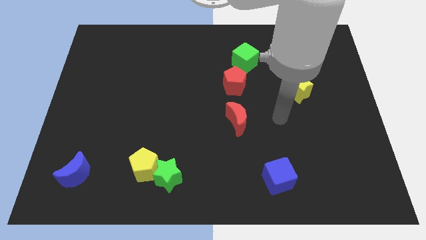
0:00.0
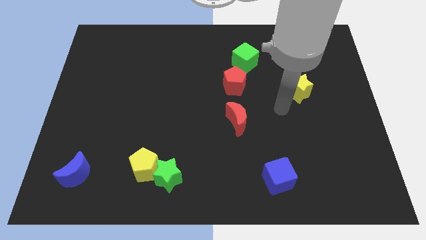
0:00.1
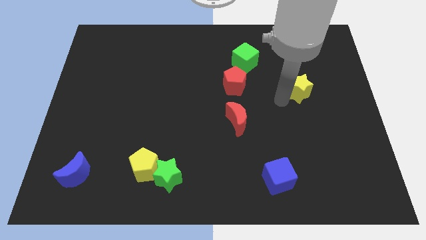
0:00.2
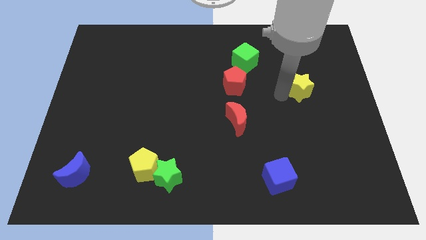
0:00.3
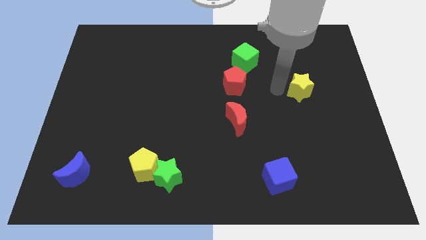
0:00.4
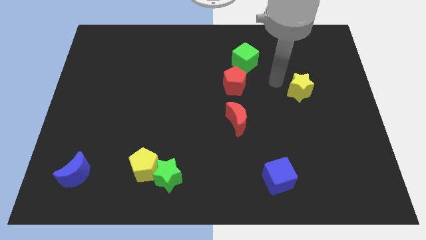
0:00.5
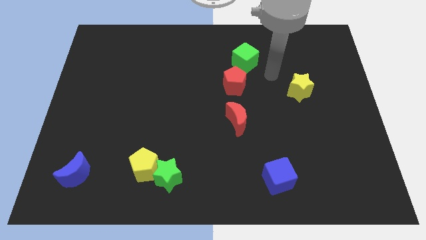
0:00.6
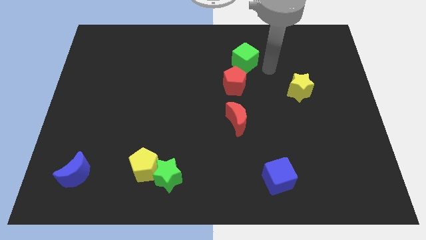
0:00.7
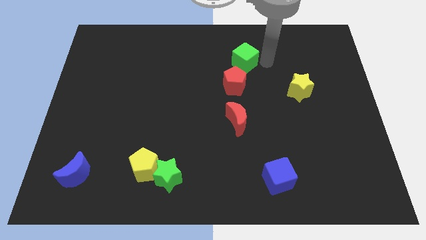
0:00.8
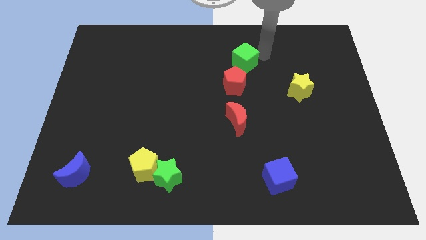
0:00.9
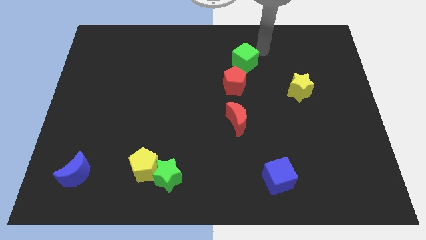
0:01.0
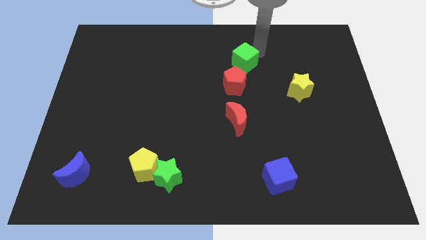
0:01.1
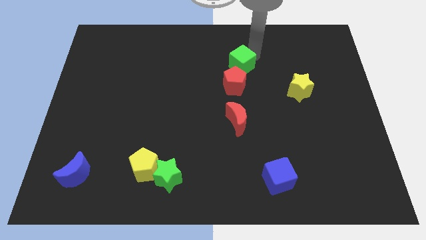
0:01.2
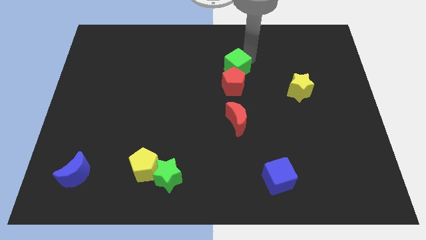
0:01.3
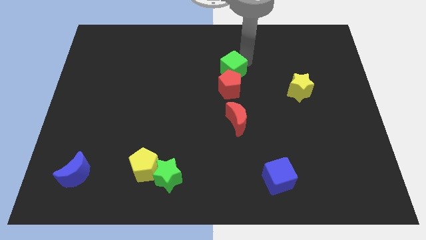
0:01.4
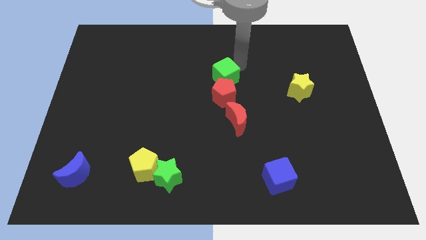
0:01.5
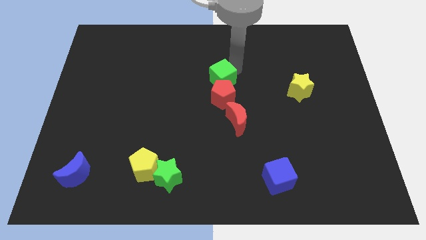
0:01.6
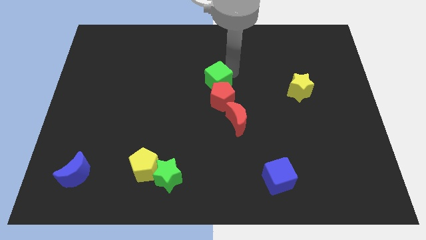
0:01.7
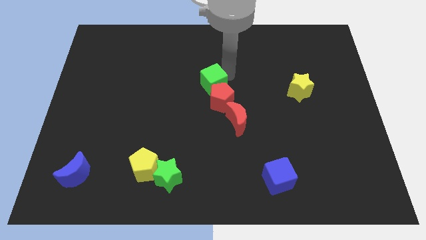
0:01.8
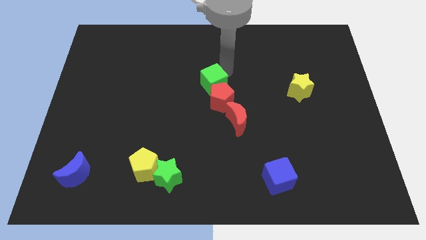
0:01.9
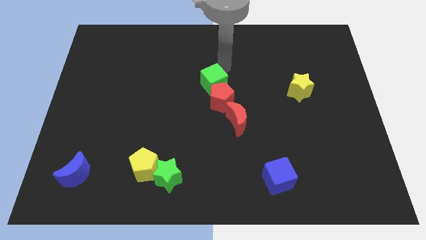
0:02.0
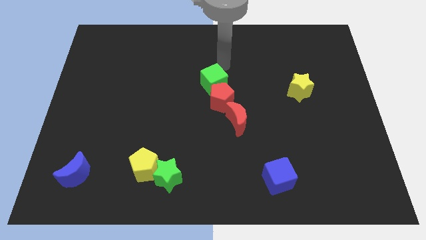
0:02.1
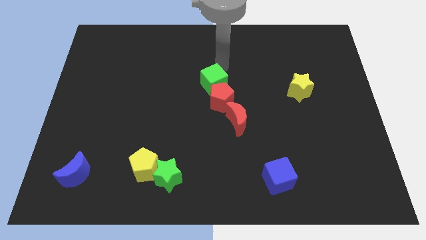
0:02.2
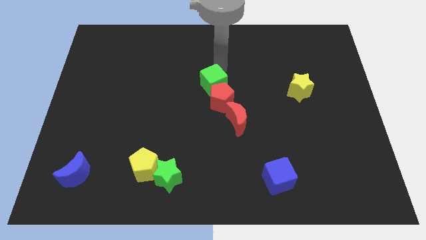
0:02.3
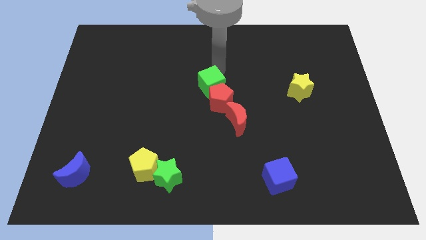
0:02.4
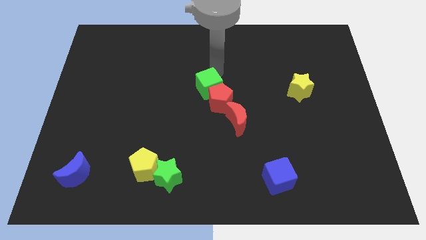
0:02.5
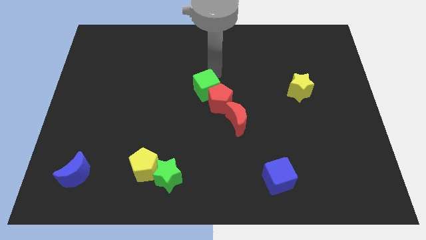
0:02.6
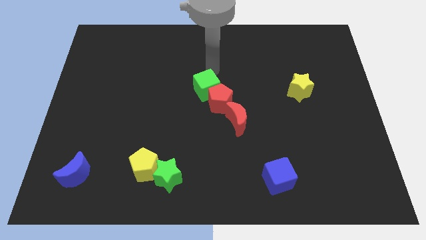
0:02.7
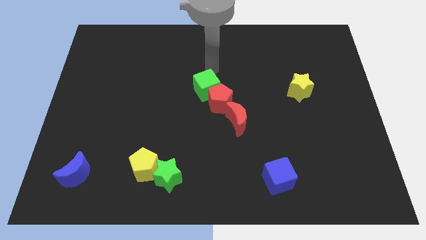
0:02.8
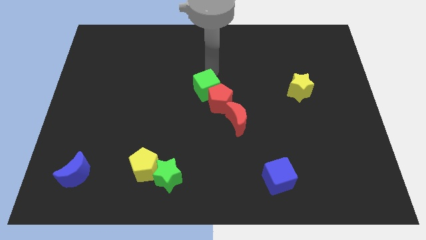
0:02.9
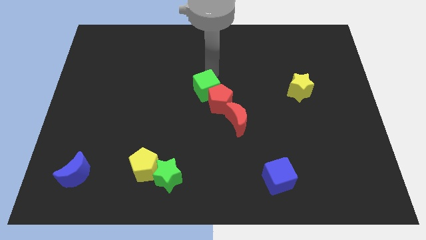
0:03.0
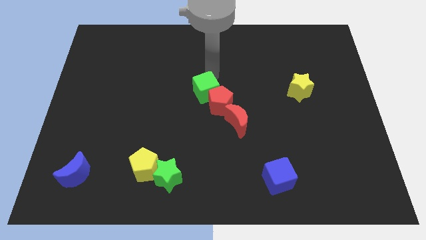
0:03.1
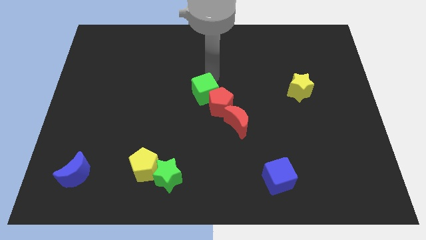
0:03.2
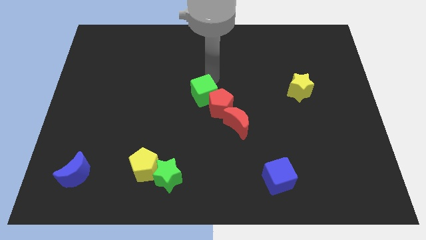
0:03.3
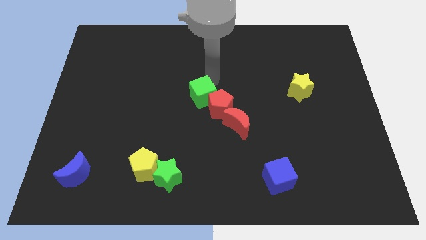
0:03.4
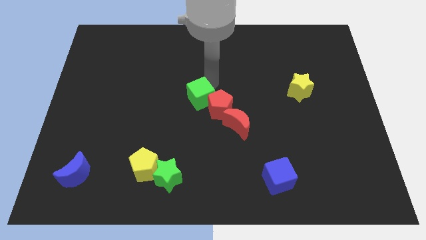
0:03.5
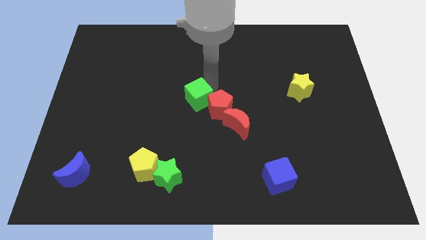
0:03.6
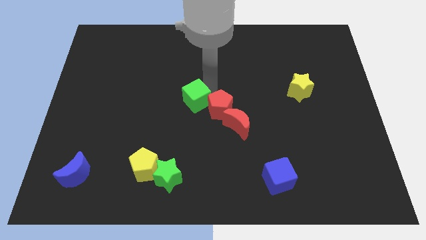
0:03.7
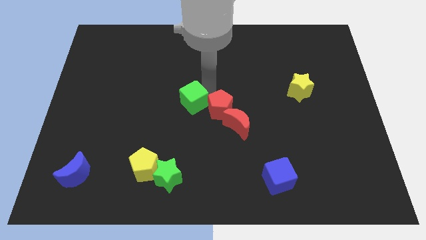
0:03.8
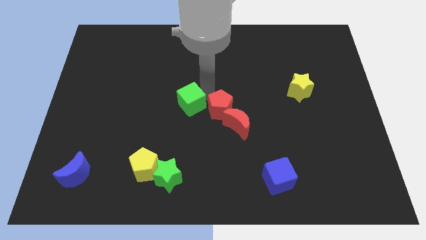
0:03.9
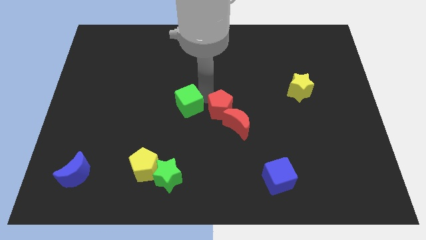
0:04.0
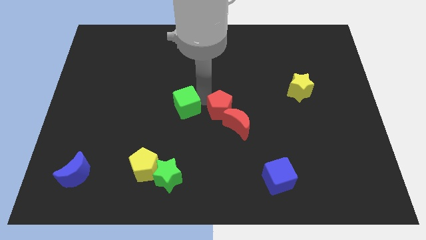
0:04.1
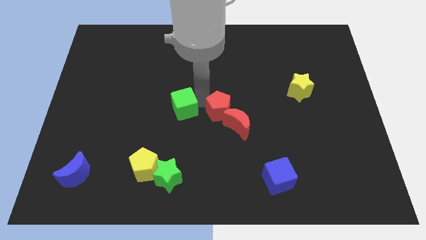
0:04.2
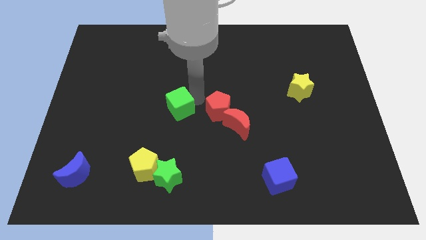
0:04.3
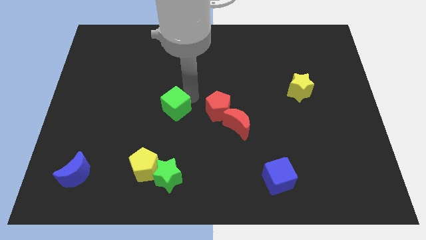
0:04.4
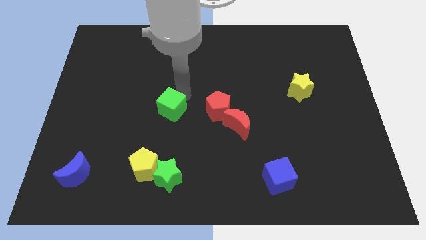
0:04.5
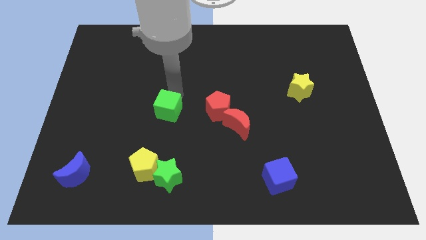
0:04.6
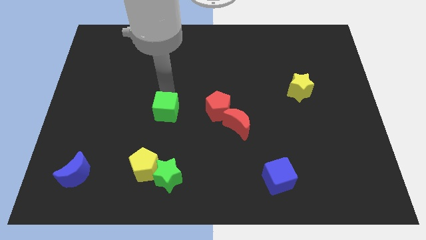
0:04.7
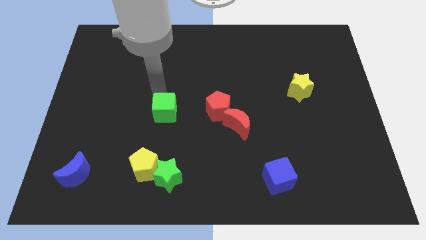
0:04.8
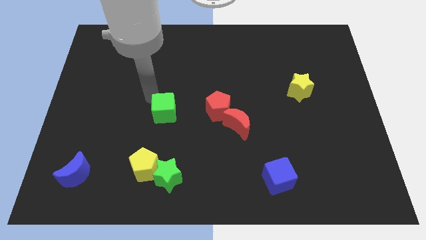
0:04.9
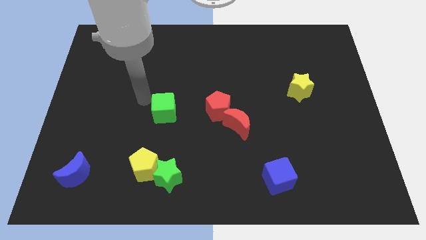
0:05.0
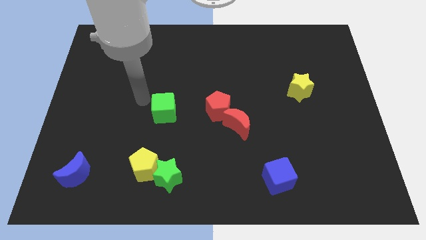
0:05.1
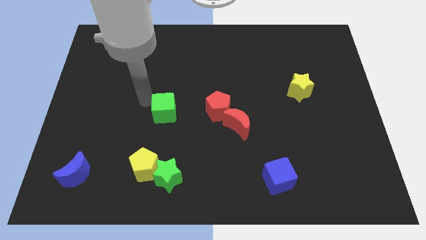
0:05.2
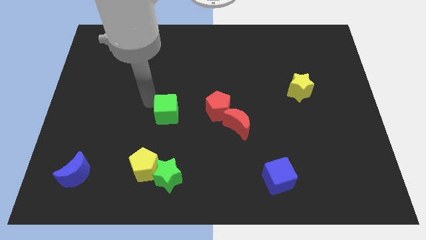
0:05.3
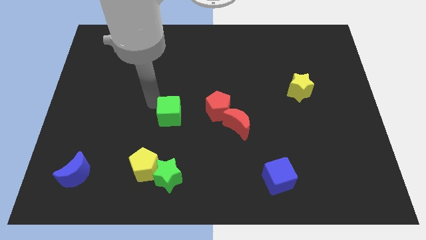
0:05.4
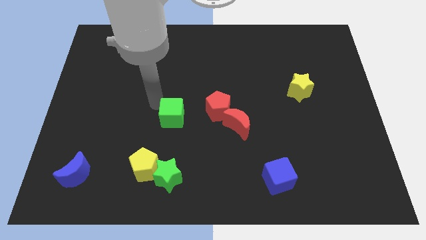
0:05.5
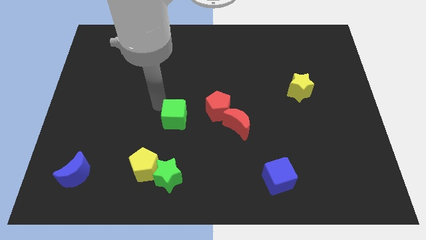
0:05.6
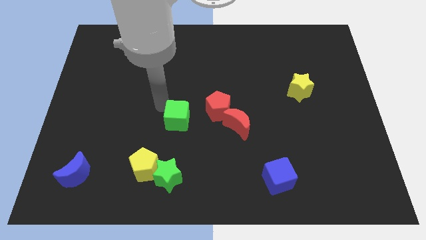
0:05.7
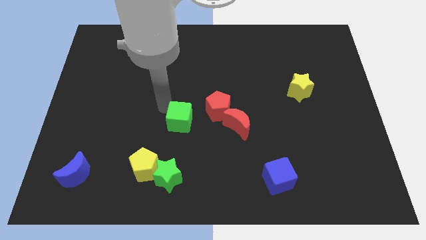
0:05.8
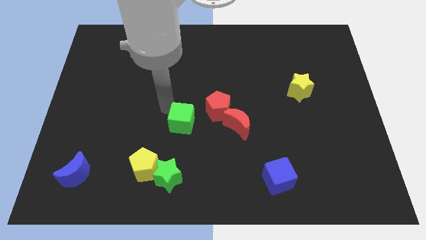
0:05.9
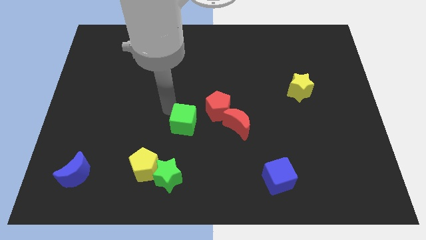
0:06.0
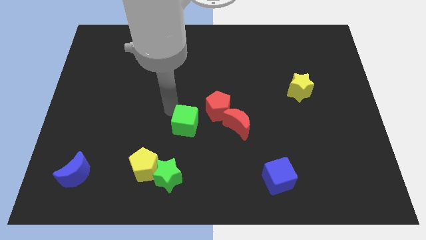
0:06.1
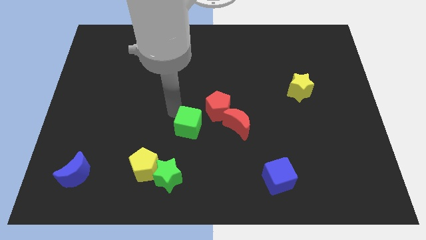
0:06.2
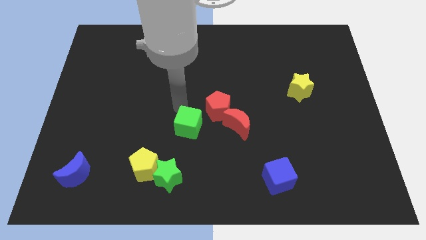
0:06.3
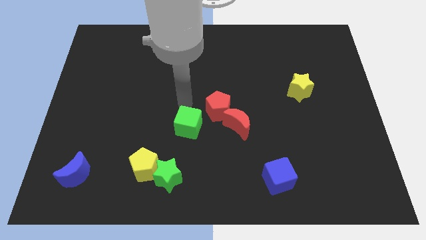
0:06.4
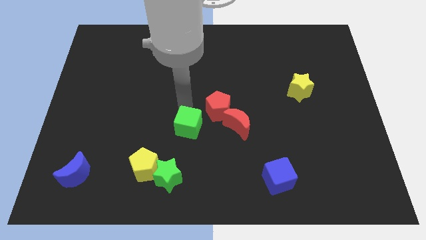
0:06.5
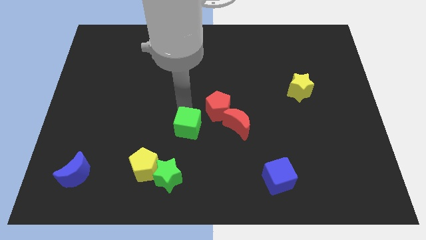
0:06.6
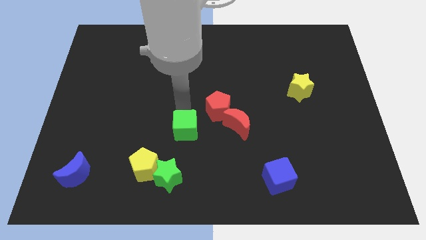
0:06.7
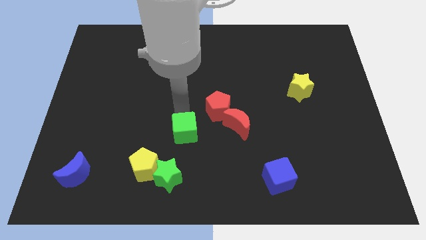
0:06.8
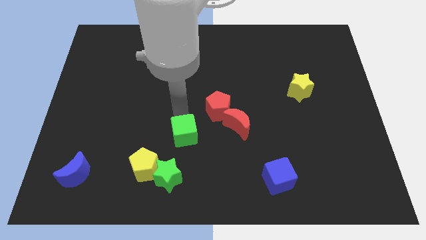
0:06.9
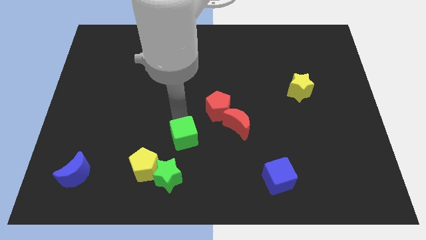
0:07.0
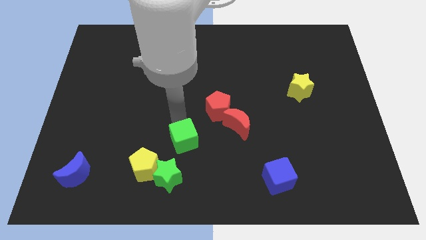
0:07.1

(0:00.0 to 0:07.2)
put the green cube to the top right of the green star

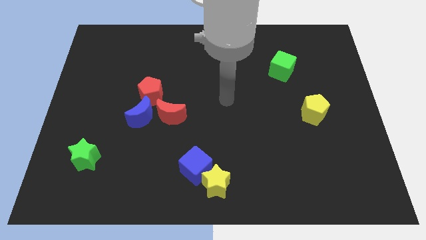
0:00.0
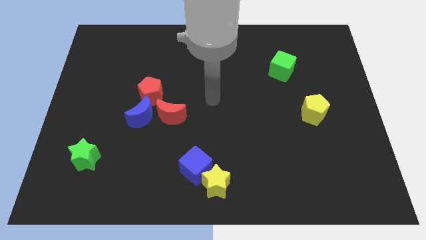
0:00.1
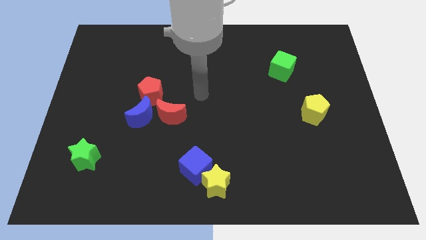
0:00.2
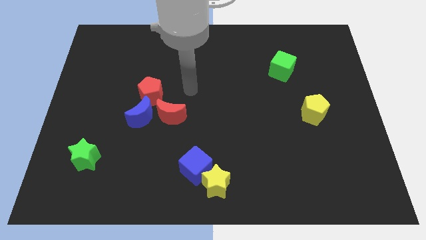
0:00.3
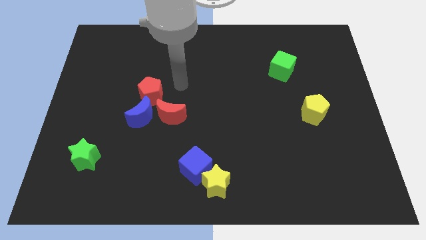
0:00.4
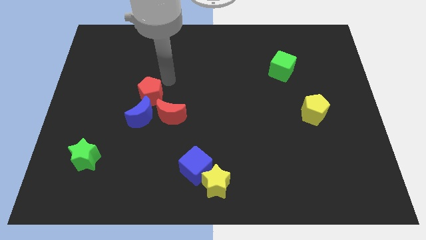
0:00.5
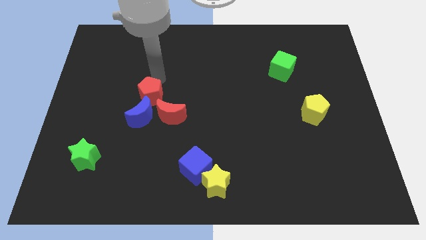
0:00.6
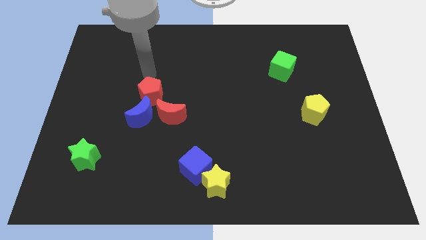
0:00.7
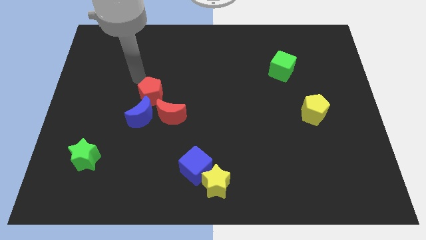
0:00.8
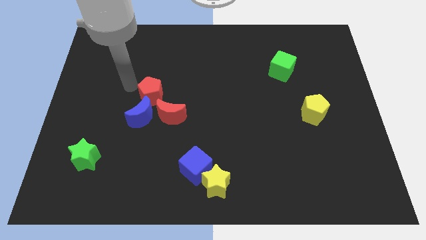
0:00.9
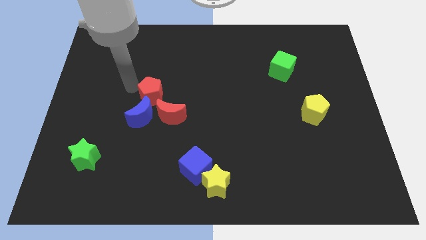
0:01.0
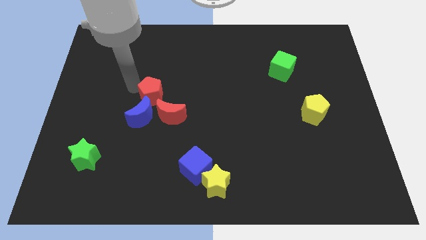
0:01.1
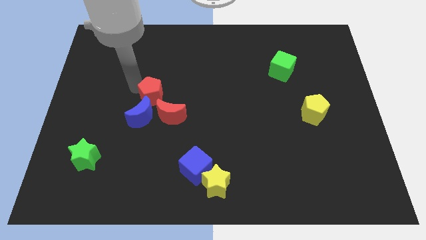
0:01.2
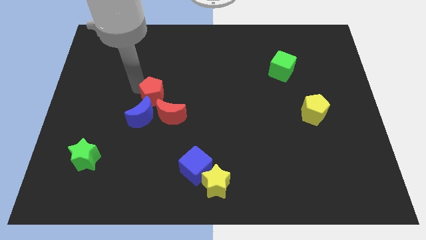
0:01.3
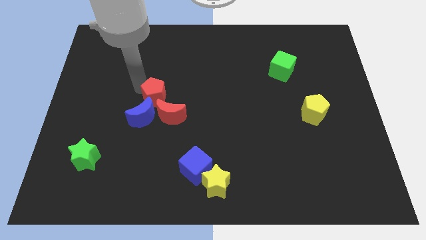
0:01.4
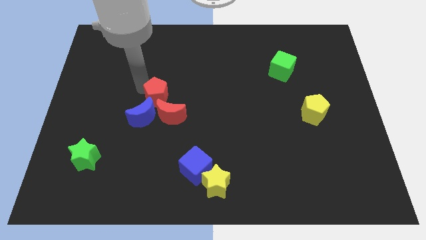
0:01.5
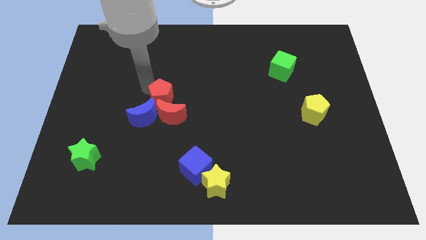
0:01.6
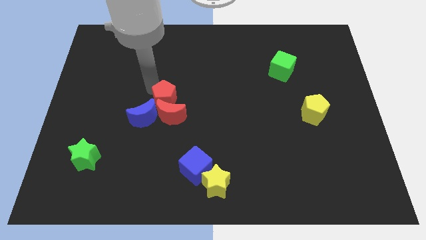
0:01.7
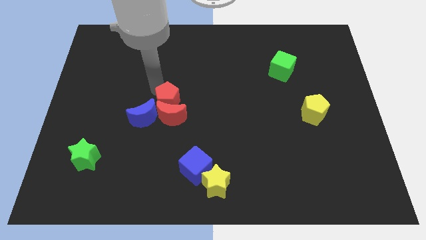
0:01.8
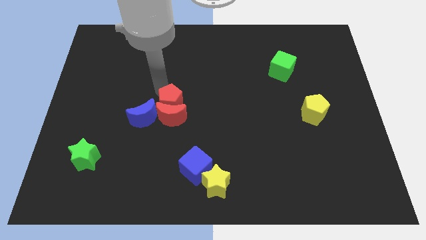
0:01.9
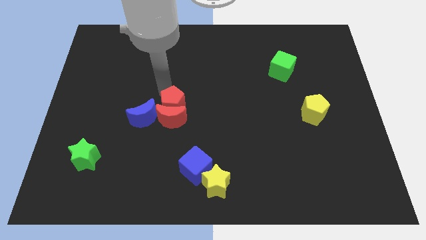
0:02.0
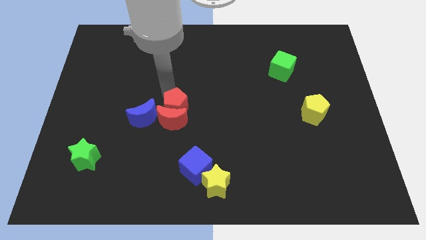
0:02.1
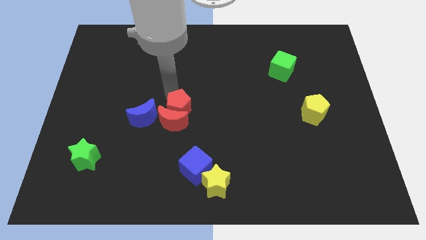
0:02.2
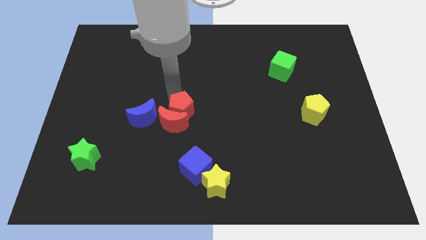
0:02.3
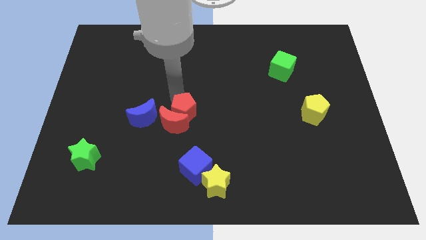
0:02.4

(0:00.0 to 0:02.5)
push the red pentagon to the top side of the blue cube
